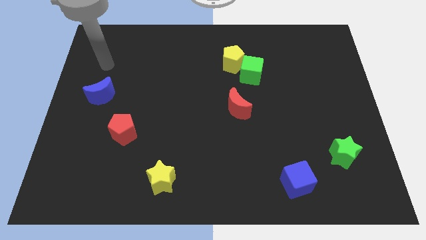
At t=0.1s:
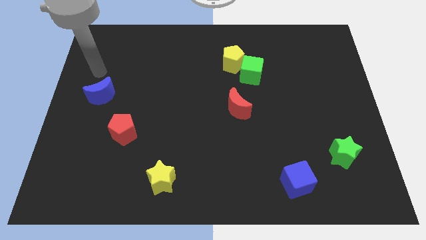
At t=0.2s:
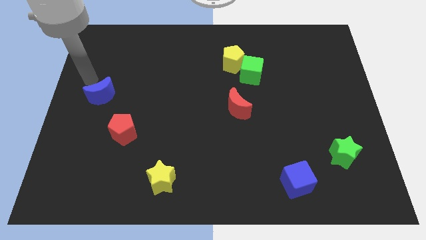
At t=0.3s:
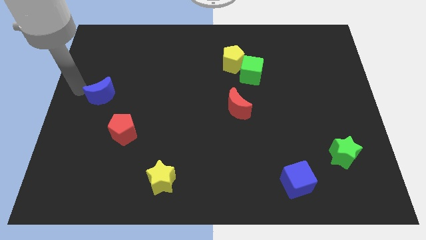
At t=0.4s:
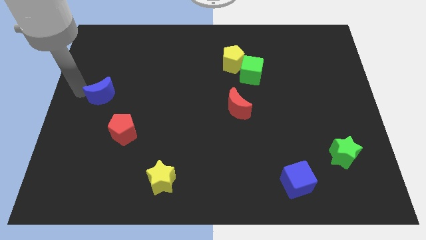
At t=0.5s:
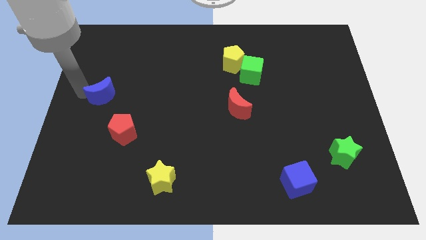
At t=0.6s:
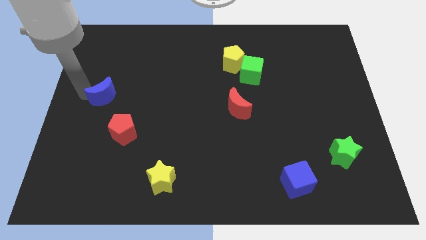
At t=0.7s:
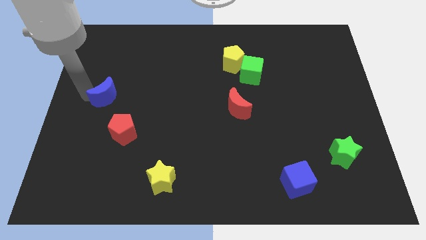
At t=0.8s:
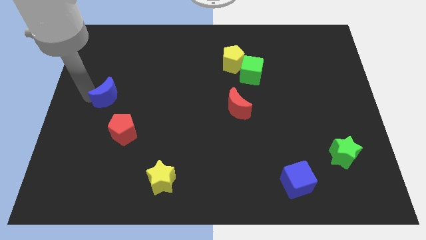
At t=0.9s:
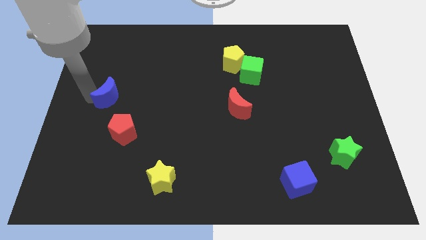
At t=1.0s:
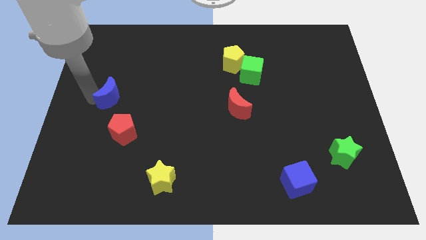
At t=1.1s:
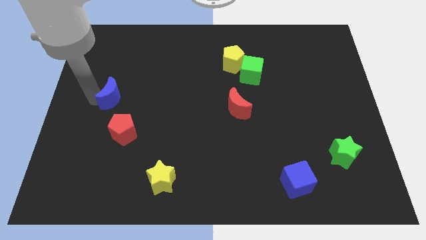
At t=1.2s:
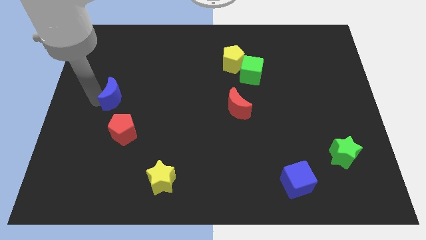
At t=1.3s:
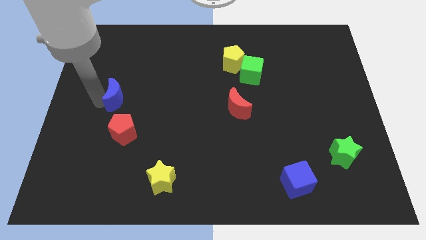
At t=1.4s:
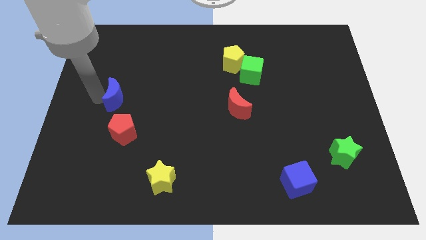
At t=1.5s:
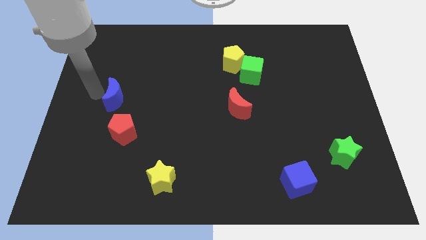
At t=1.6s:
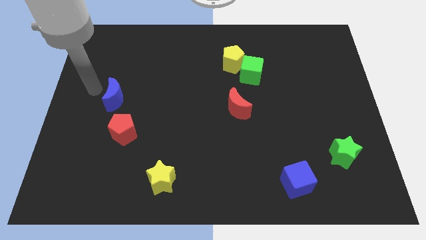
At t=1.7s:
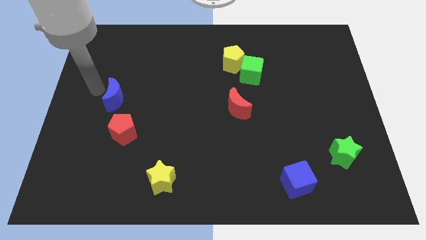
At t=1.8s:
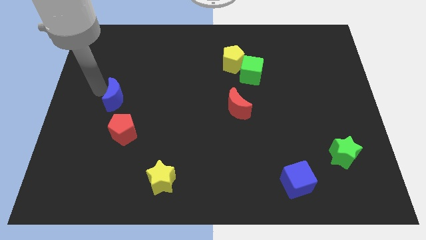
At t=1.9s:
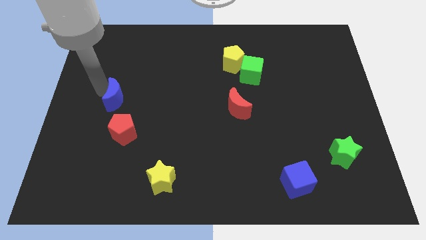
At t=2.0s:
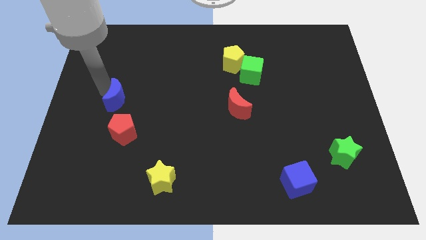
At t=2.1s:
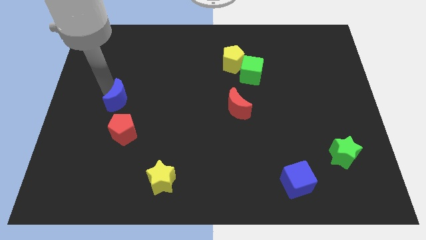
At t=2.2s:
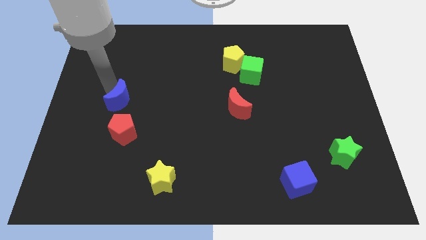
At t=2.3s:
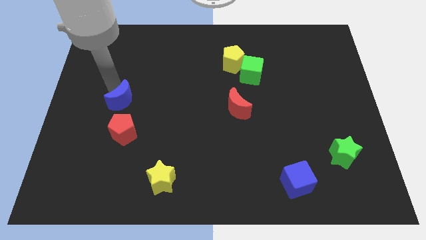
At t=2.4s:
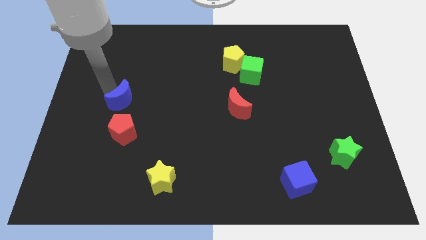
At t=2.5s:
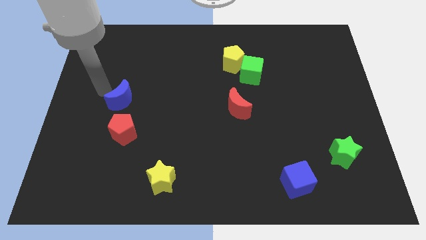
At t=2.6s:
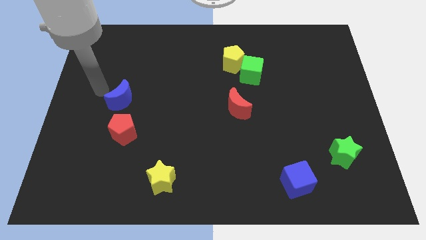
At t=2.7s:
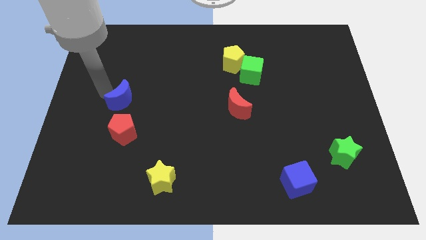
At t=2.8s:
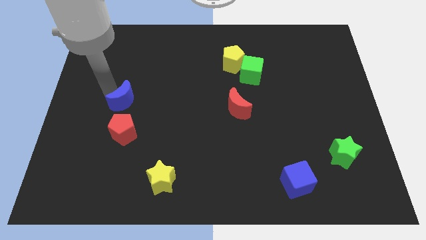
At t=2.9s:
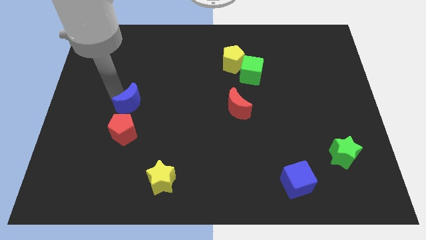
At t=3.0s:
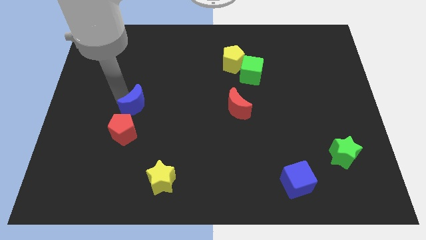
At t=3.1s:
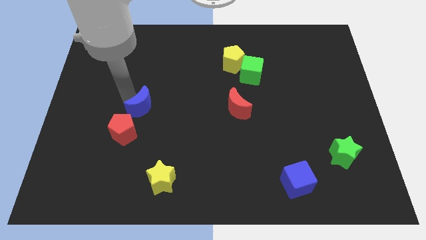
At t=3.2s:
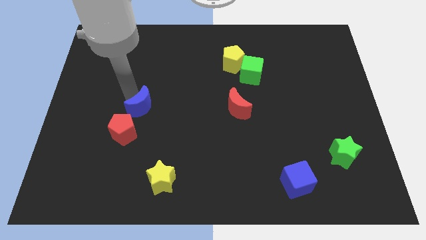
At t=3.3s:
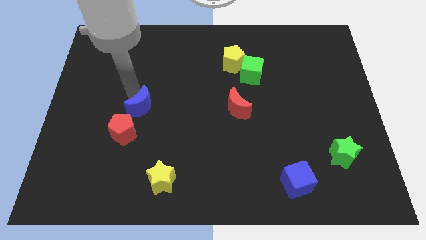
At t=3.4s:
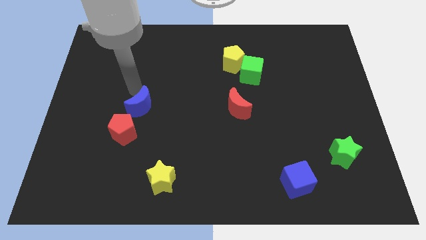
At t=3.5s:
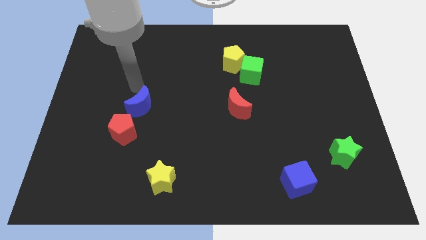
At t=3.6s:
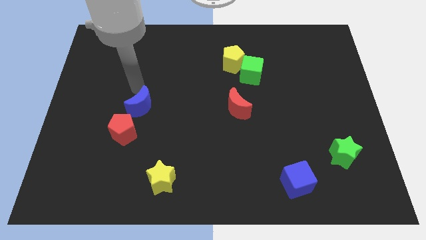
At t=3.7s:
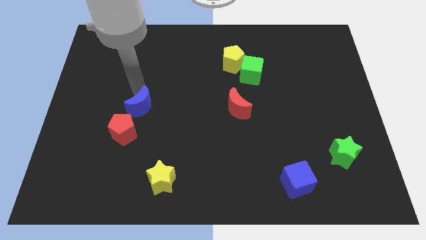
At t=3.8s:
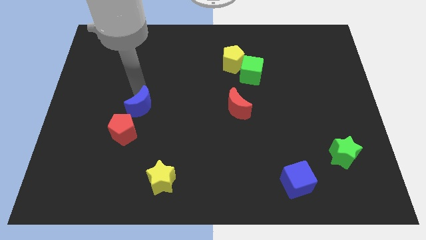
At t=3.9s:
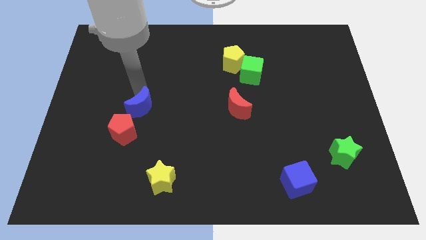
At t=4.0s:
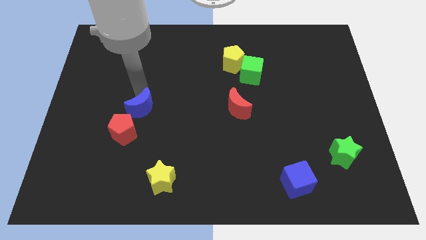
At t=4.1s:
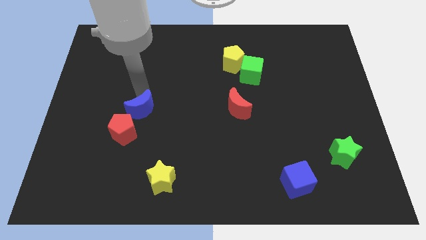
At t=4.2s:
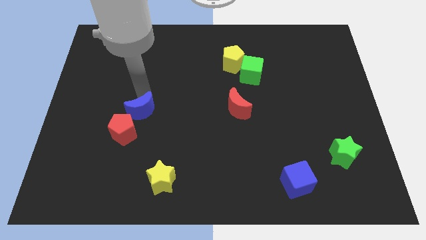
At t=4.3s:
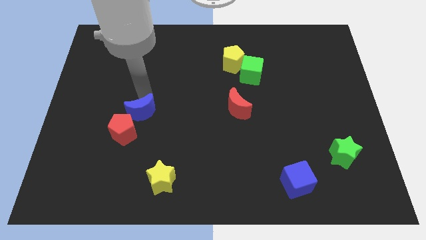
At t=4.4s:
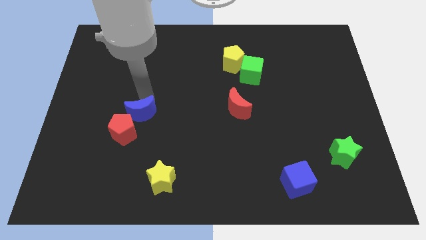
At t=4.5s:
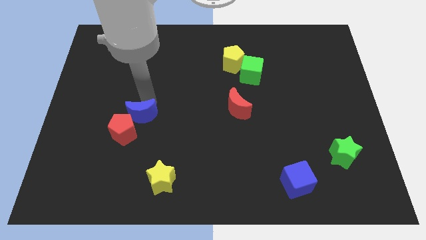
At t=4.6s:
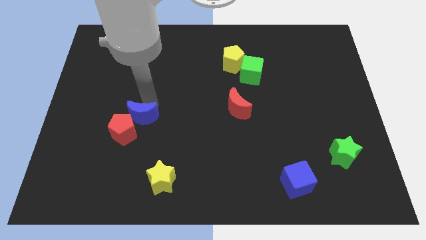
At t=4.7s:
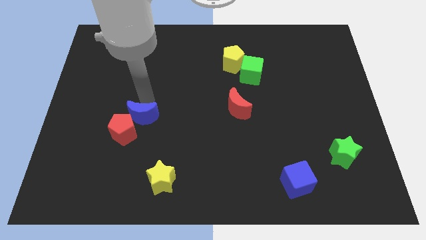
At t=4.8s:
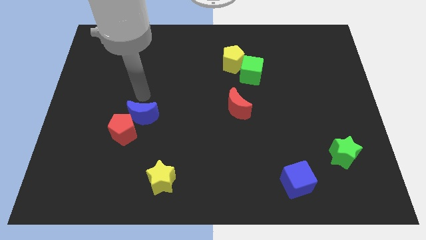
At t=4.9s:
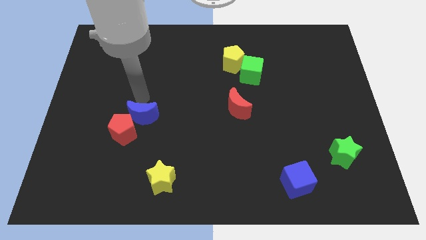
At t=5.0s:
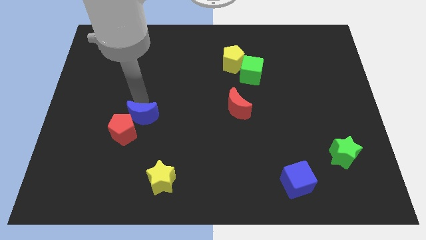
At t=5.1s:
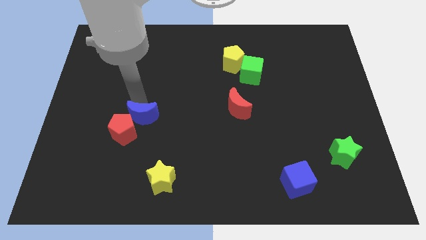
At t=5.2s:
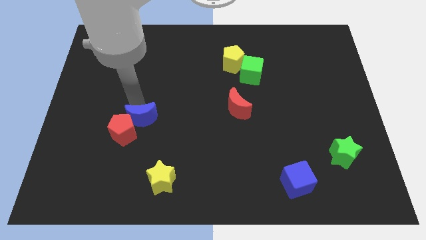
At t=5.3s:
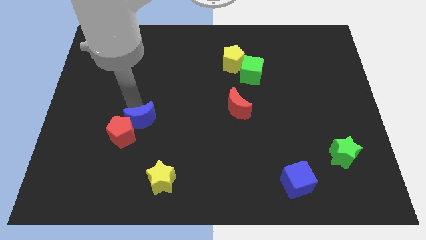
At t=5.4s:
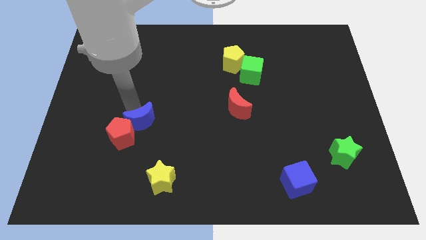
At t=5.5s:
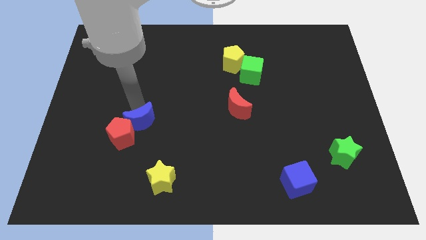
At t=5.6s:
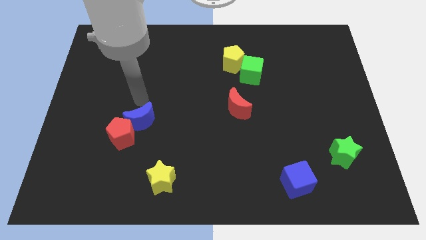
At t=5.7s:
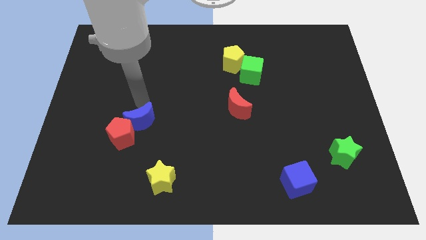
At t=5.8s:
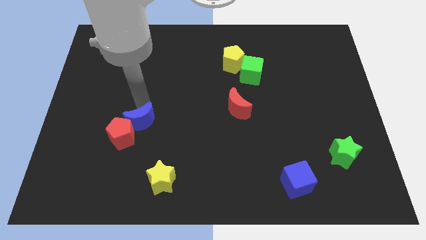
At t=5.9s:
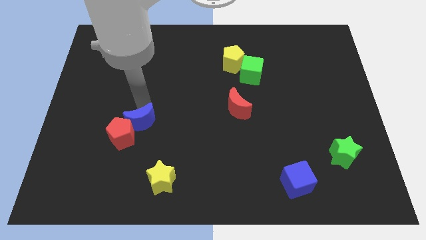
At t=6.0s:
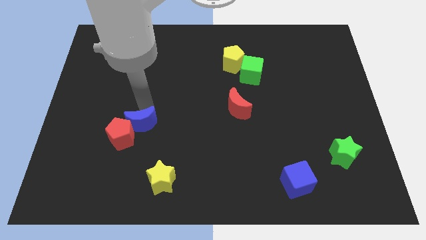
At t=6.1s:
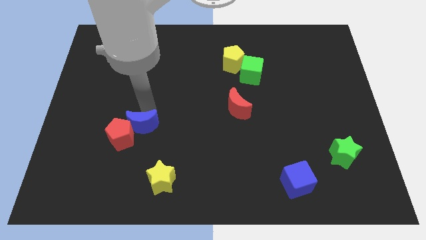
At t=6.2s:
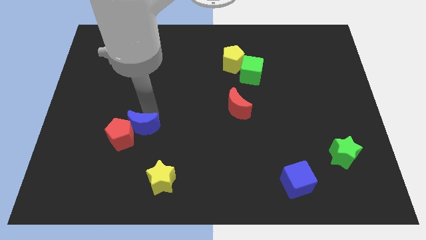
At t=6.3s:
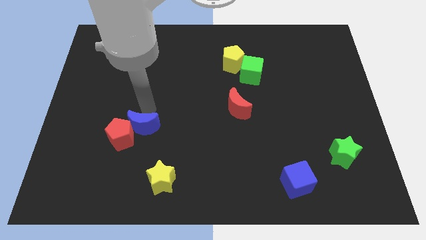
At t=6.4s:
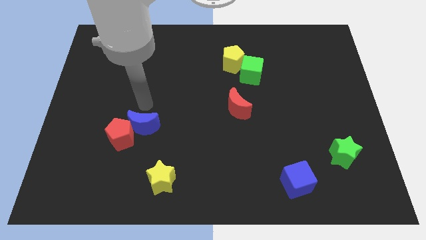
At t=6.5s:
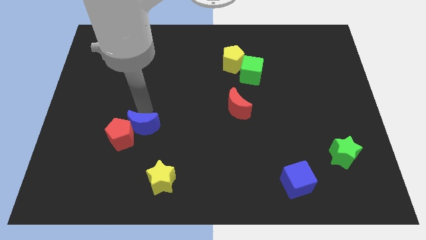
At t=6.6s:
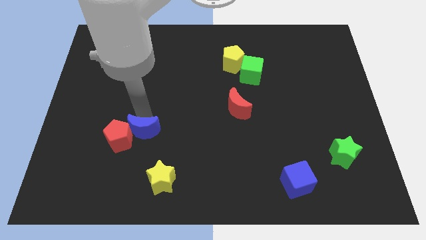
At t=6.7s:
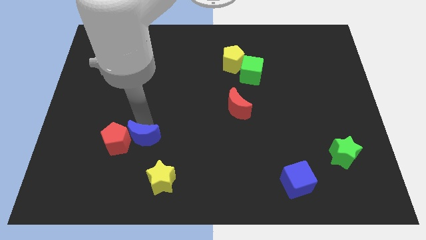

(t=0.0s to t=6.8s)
push the blue moon to the bottom right side of the red pentagon
